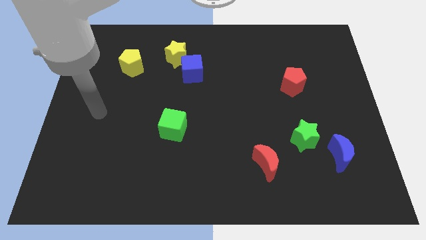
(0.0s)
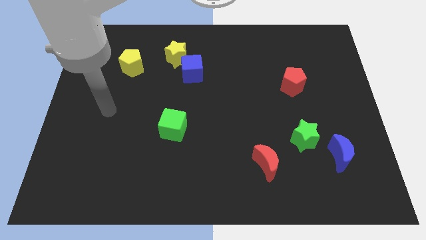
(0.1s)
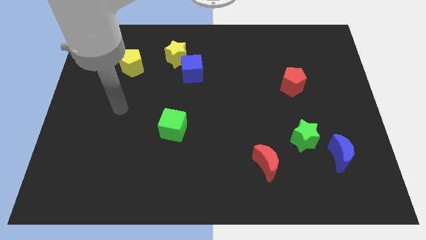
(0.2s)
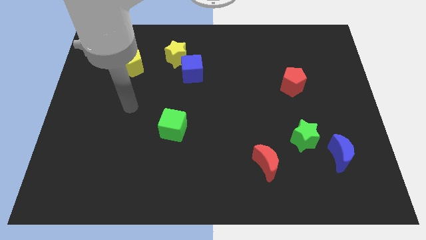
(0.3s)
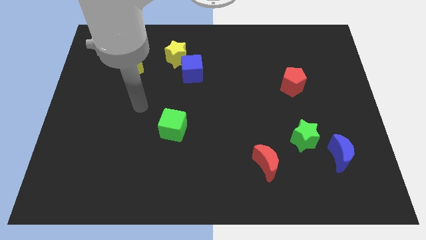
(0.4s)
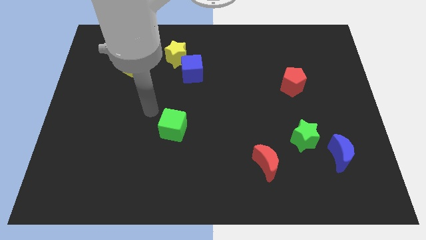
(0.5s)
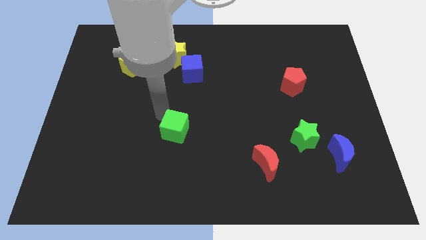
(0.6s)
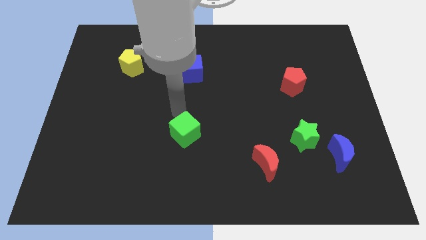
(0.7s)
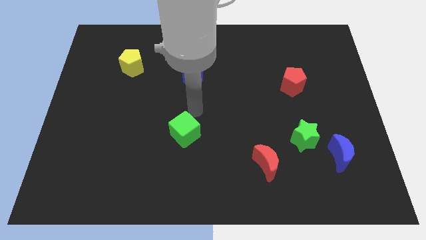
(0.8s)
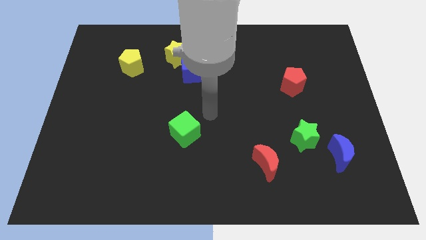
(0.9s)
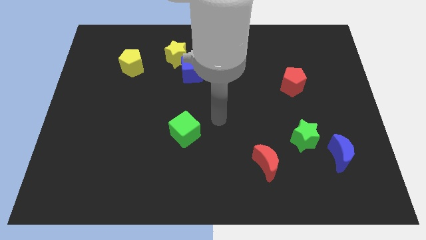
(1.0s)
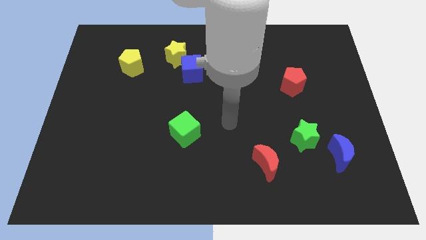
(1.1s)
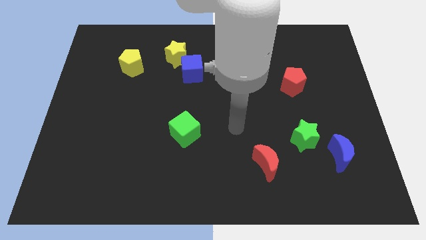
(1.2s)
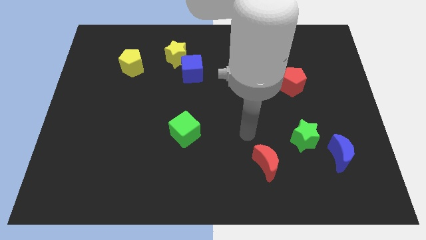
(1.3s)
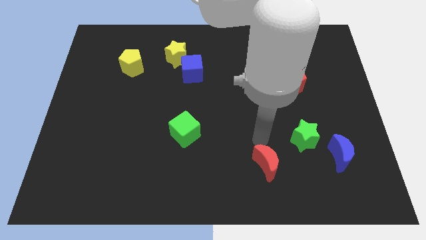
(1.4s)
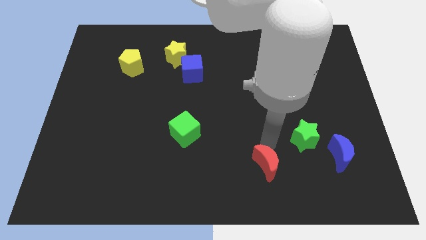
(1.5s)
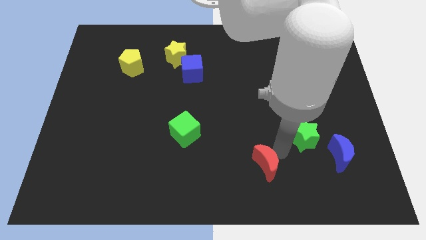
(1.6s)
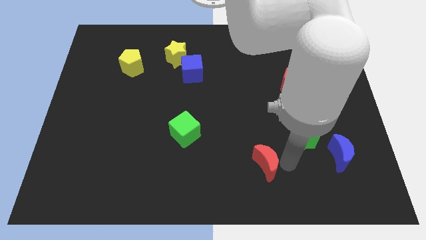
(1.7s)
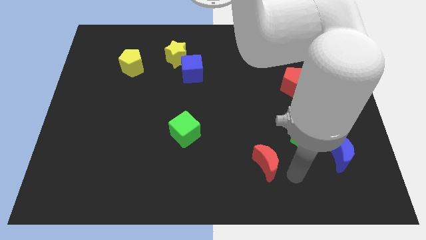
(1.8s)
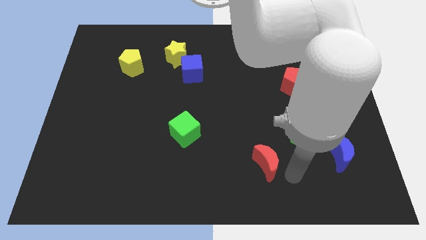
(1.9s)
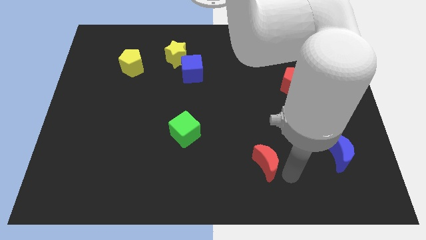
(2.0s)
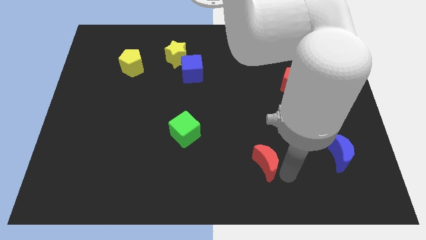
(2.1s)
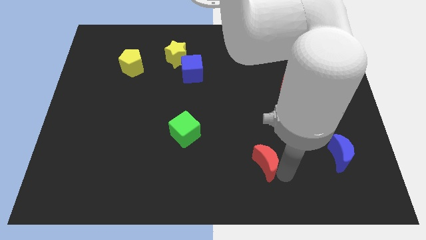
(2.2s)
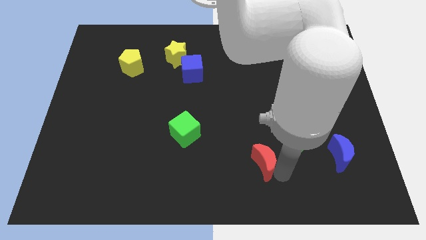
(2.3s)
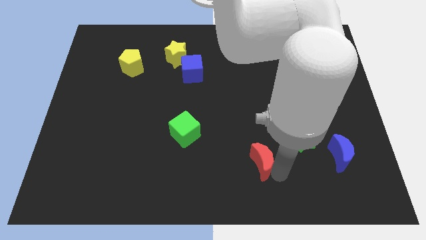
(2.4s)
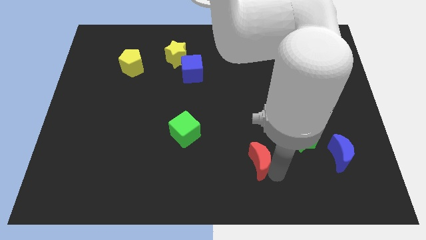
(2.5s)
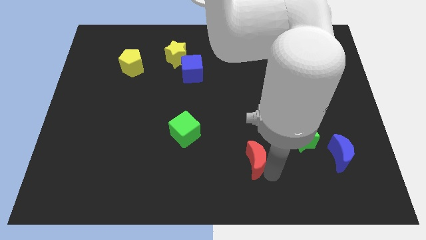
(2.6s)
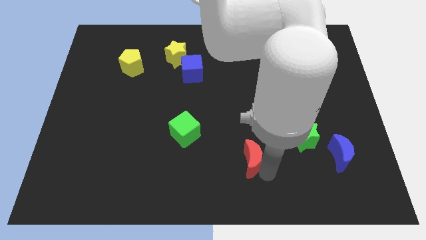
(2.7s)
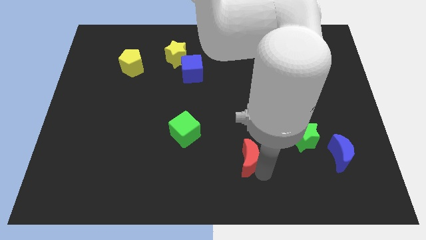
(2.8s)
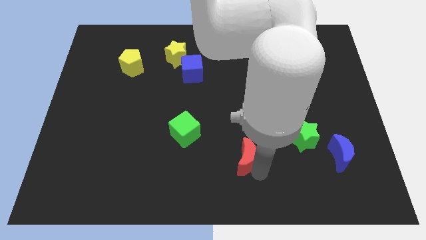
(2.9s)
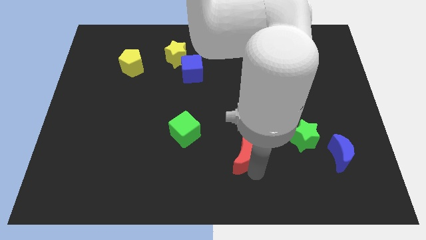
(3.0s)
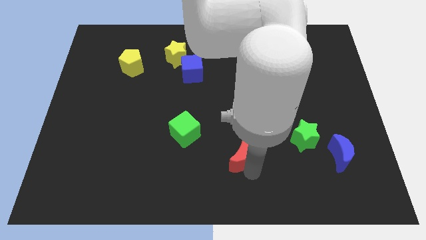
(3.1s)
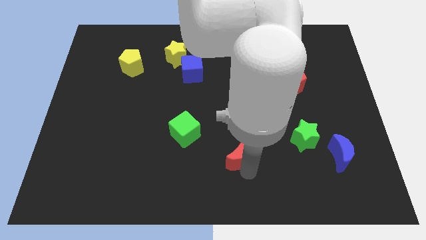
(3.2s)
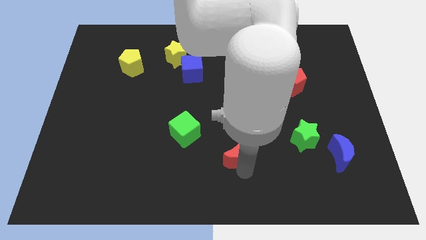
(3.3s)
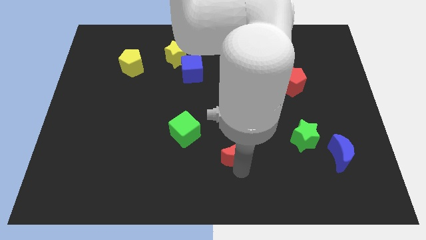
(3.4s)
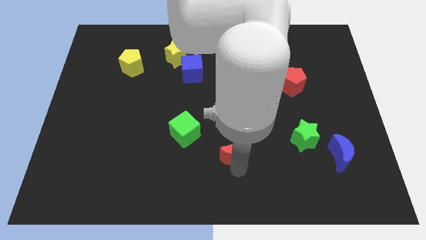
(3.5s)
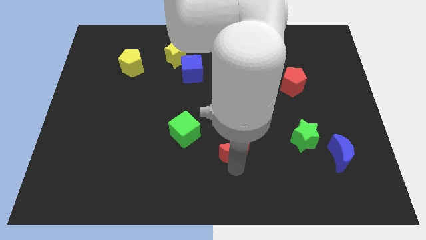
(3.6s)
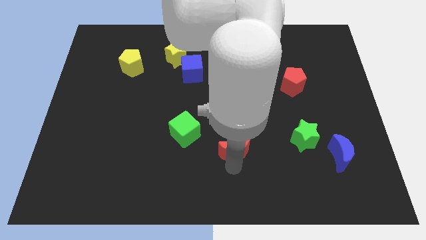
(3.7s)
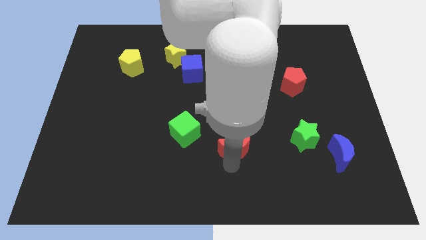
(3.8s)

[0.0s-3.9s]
slide the red moon somewhat upwards and then to the left

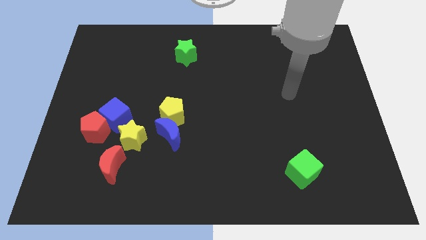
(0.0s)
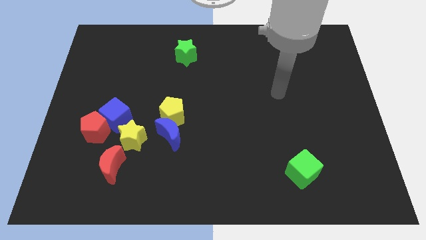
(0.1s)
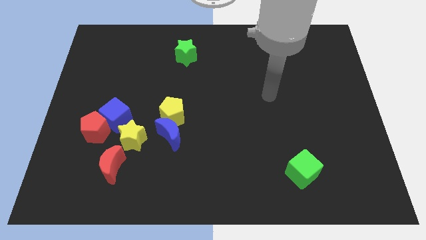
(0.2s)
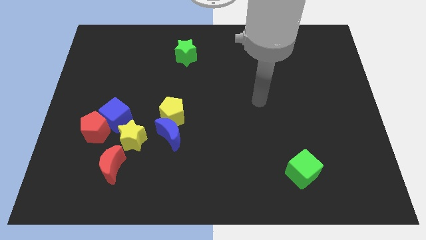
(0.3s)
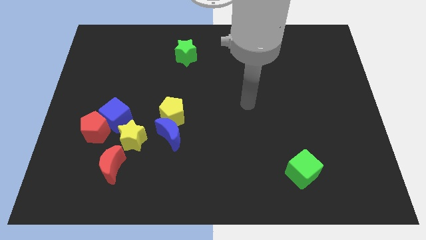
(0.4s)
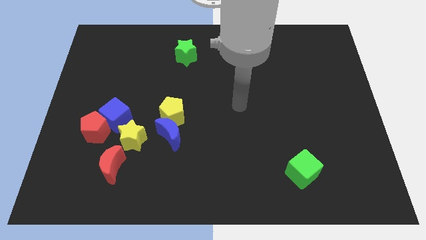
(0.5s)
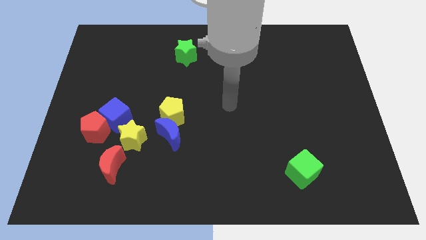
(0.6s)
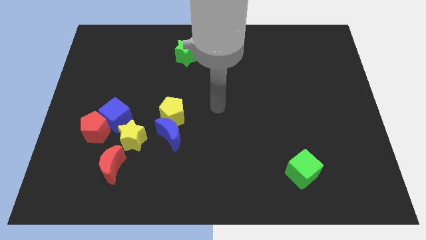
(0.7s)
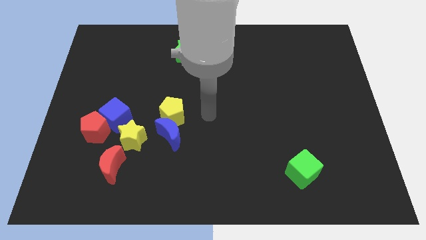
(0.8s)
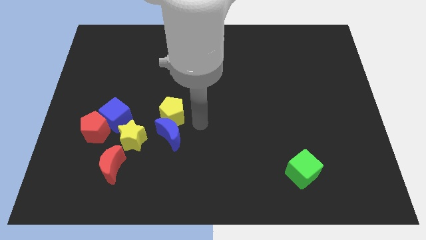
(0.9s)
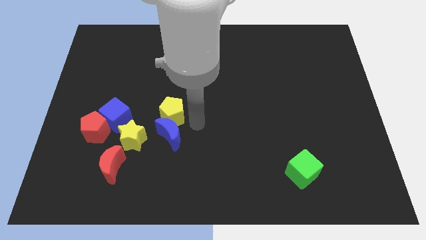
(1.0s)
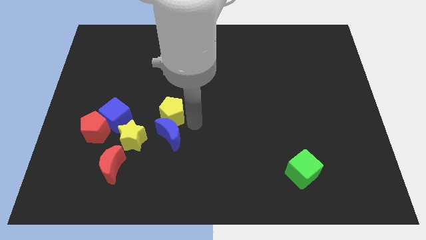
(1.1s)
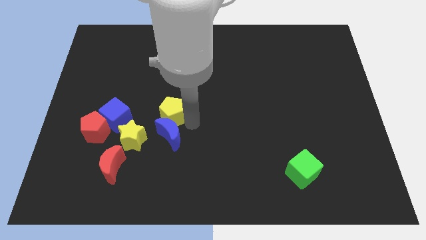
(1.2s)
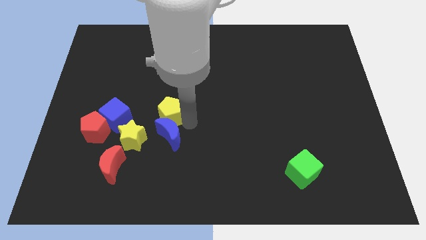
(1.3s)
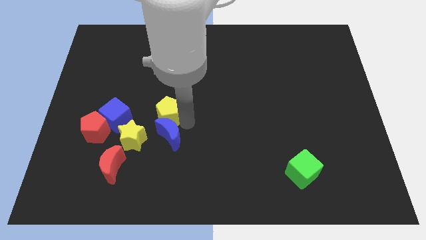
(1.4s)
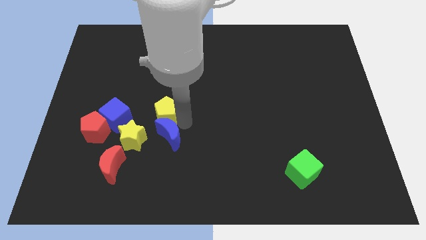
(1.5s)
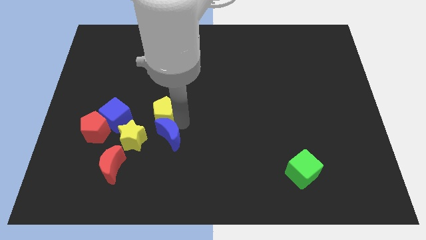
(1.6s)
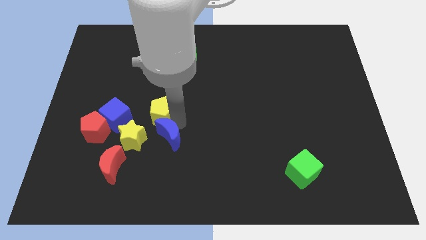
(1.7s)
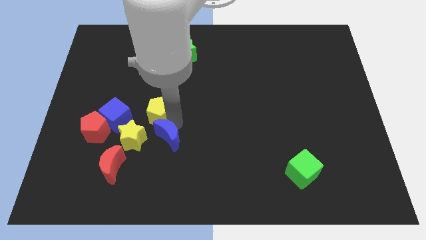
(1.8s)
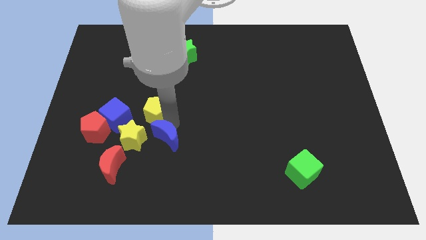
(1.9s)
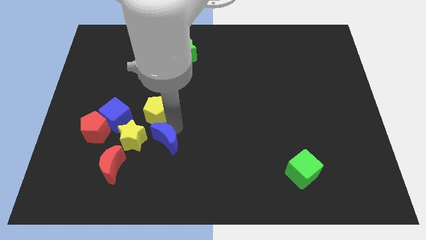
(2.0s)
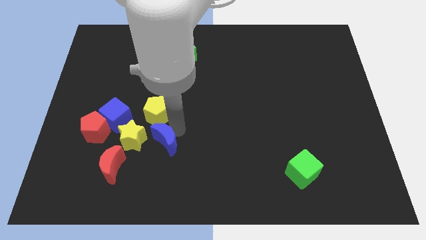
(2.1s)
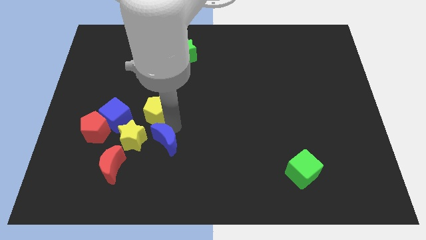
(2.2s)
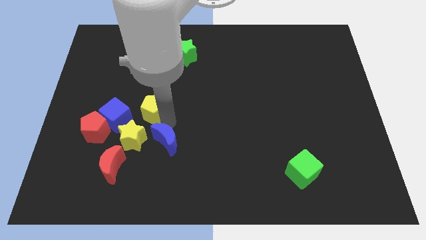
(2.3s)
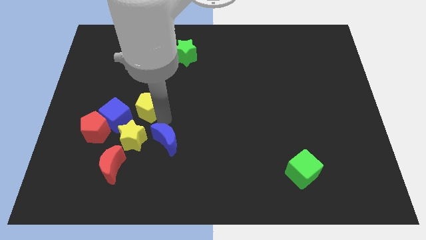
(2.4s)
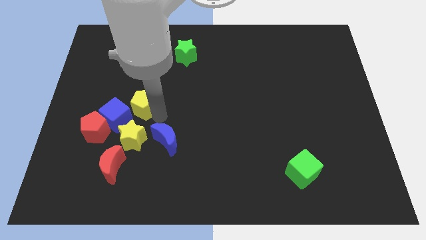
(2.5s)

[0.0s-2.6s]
move the yellow pentagon a bit left

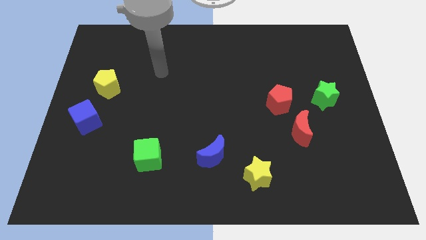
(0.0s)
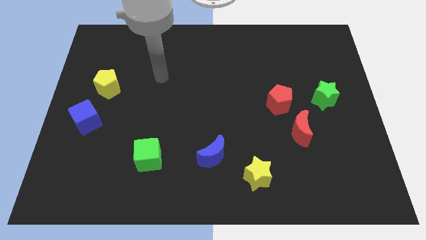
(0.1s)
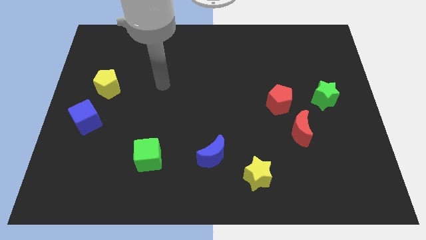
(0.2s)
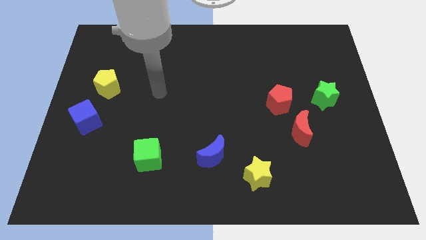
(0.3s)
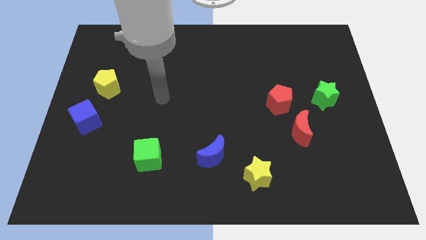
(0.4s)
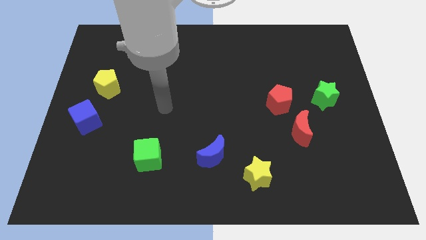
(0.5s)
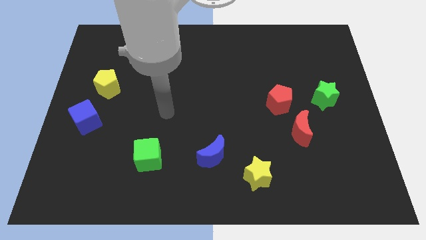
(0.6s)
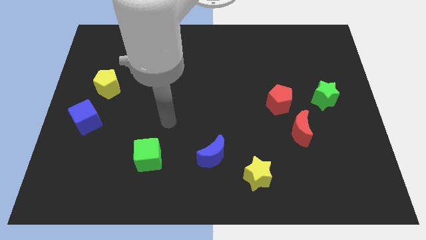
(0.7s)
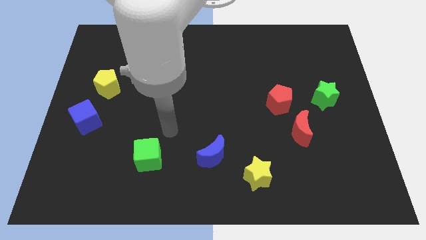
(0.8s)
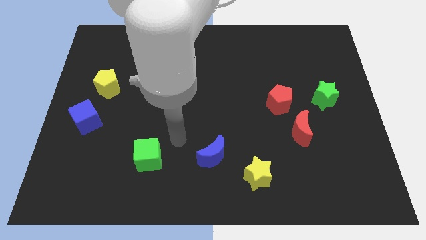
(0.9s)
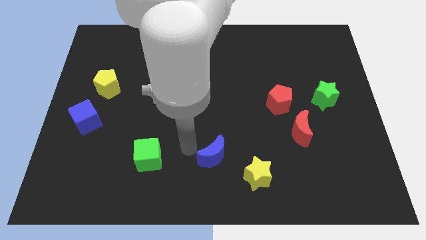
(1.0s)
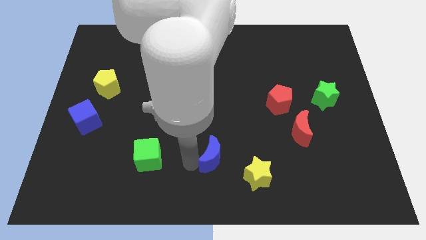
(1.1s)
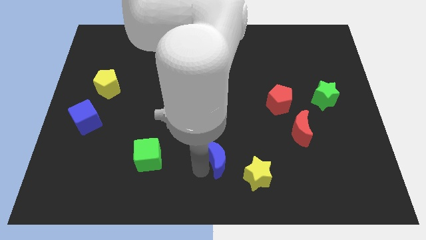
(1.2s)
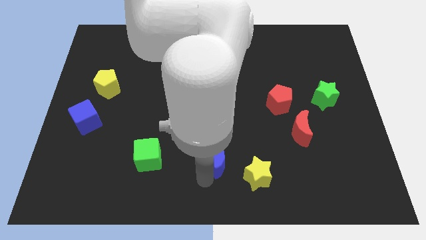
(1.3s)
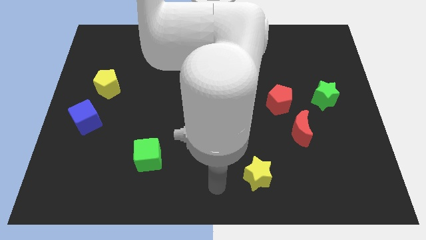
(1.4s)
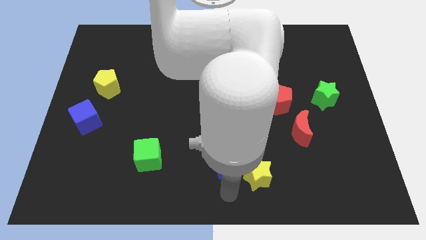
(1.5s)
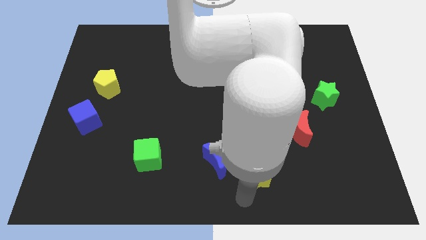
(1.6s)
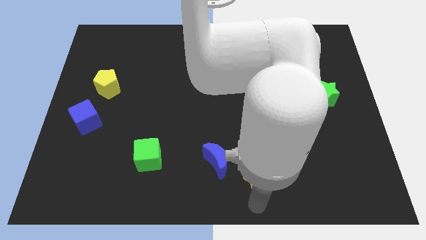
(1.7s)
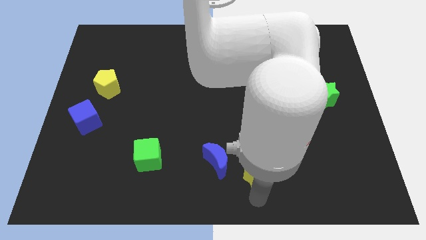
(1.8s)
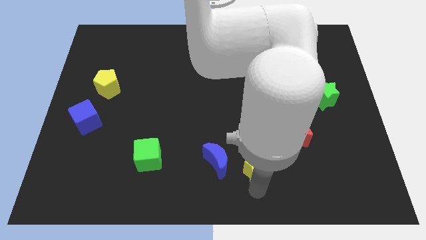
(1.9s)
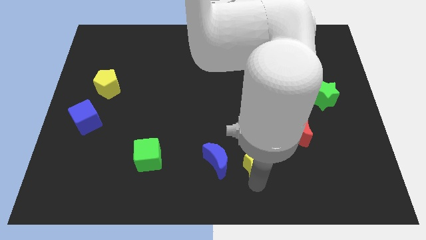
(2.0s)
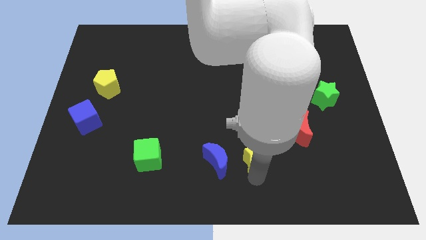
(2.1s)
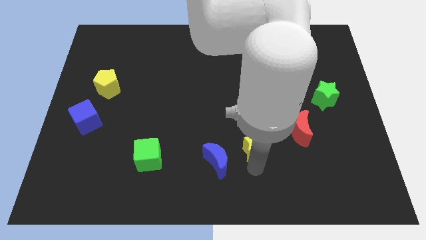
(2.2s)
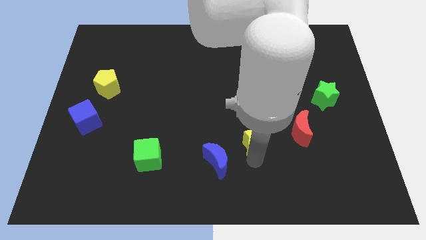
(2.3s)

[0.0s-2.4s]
slide the yellow star somewhat upwards
